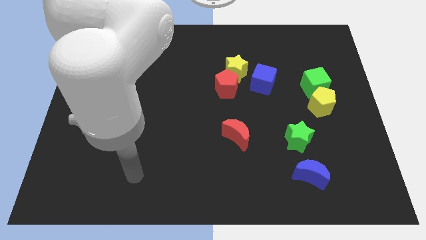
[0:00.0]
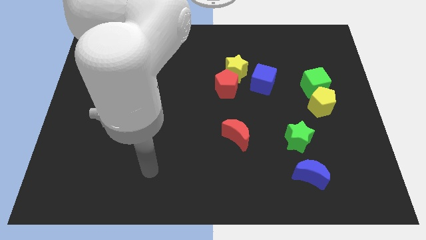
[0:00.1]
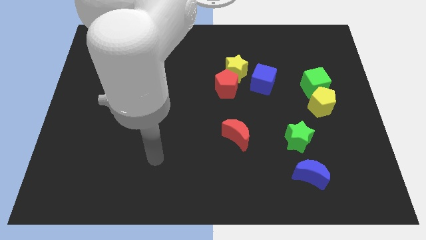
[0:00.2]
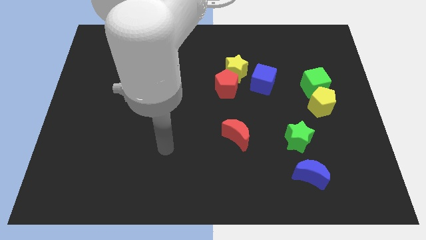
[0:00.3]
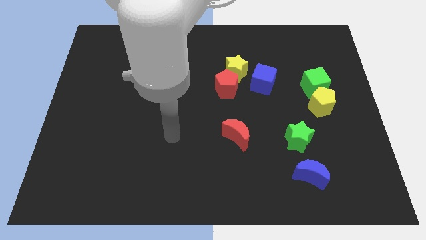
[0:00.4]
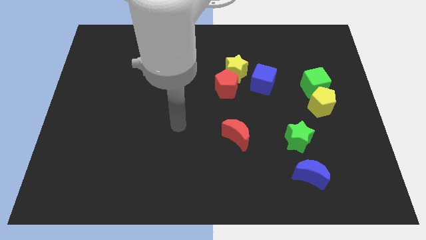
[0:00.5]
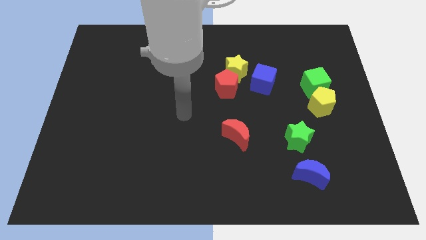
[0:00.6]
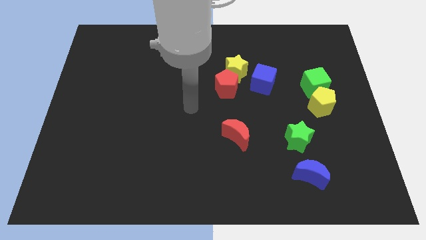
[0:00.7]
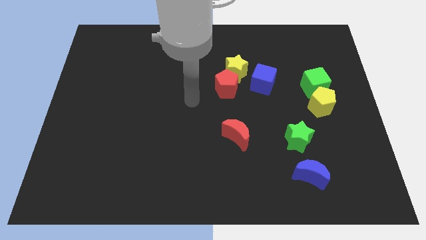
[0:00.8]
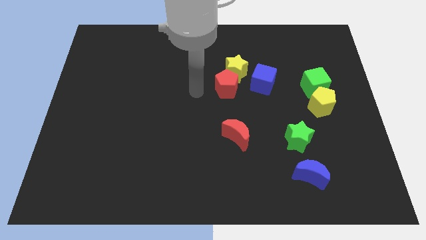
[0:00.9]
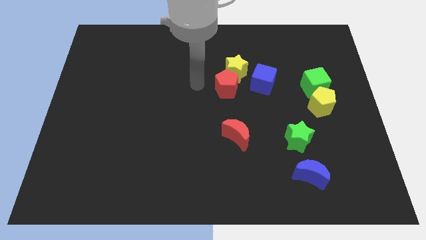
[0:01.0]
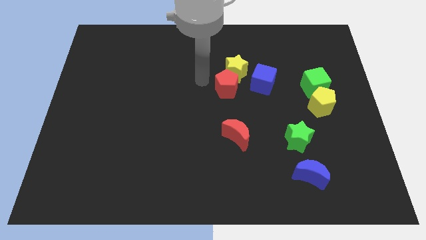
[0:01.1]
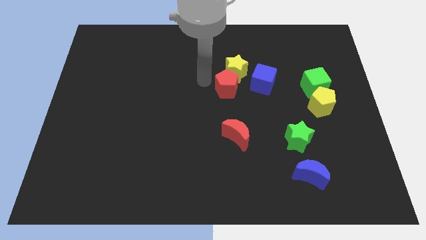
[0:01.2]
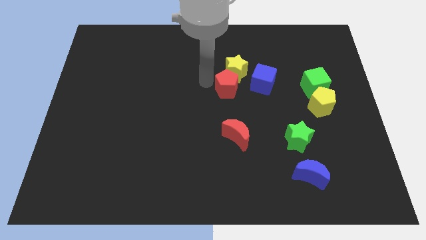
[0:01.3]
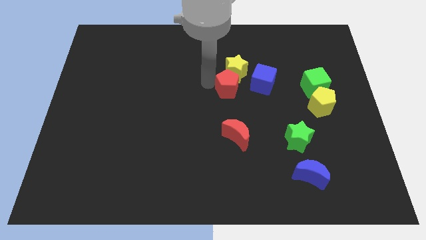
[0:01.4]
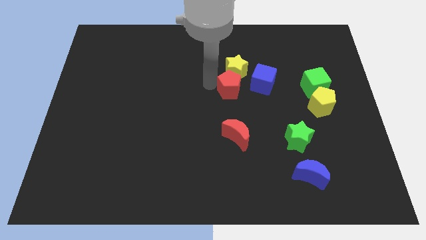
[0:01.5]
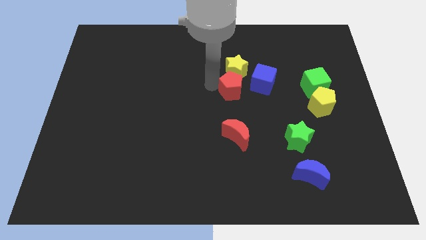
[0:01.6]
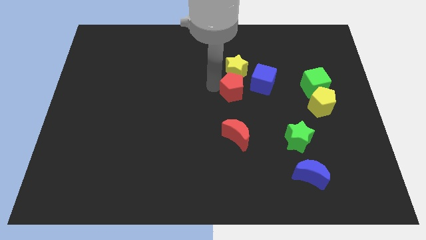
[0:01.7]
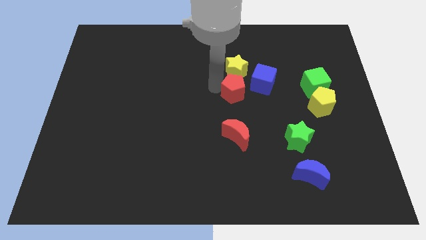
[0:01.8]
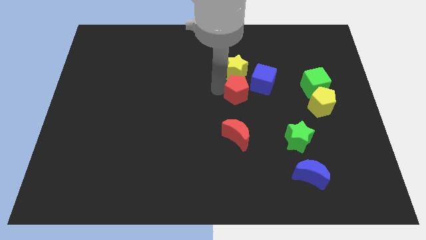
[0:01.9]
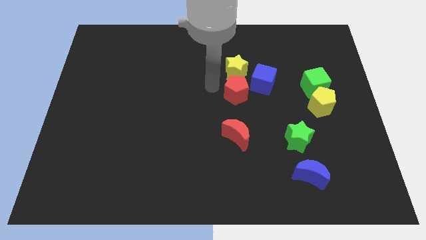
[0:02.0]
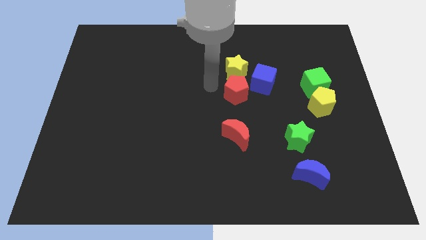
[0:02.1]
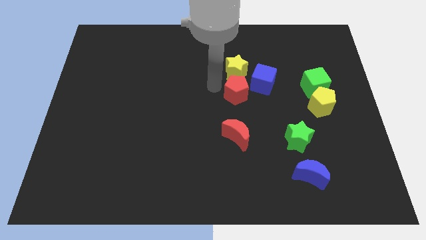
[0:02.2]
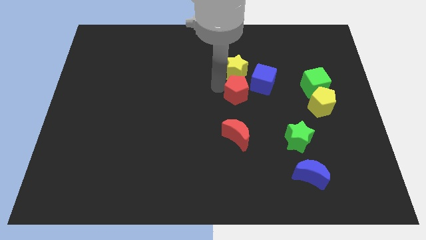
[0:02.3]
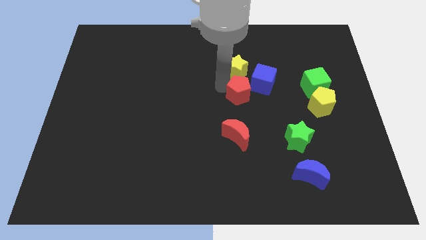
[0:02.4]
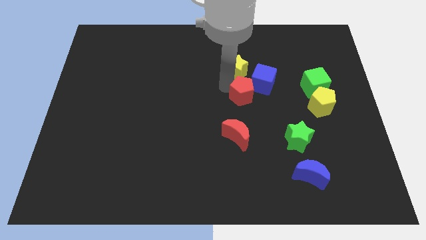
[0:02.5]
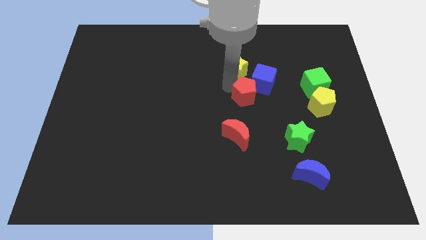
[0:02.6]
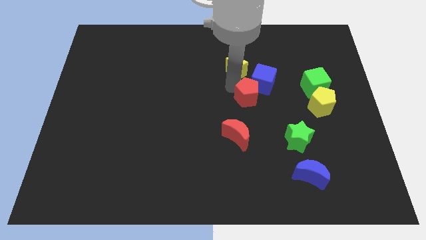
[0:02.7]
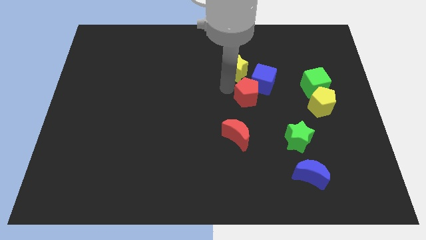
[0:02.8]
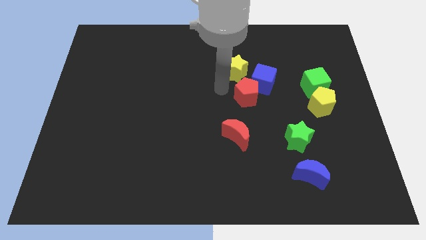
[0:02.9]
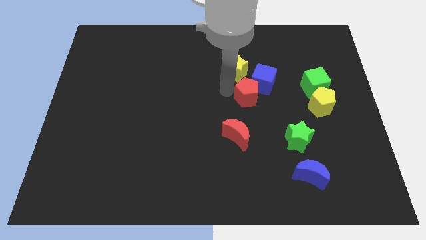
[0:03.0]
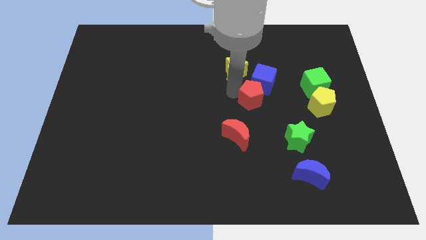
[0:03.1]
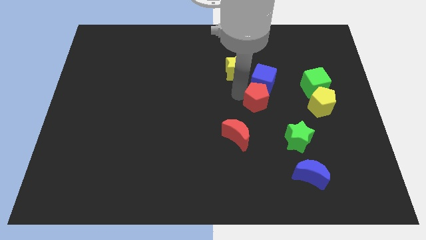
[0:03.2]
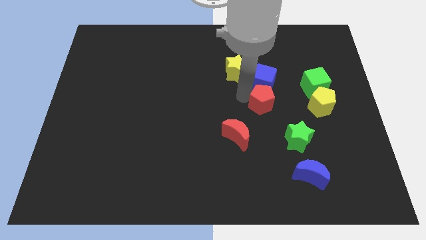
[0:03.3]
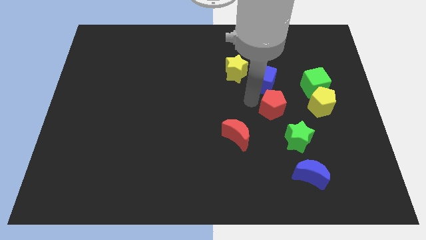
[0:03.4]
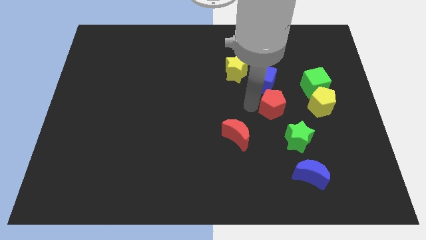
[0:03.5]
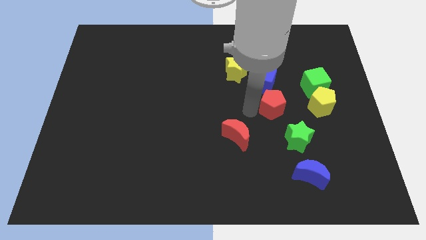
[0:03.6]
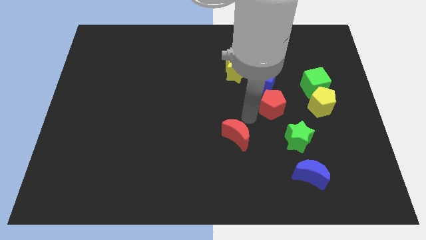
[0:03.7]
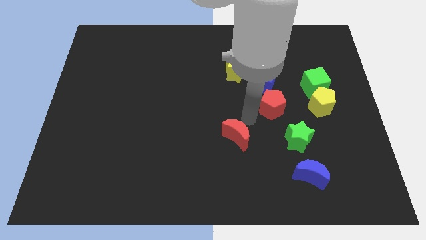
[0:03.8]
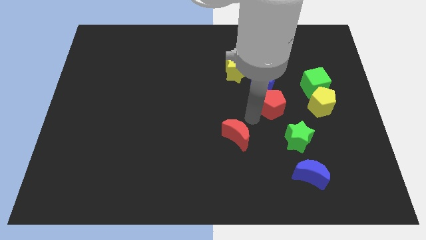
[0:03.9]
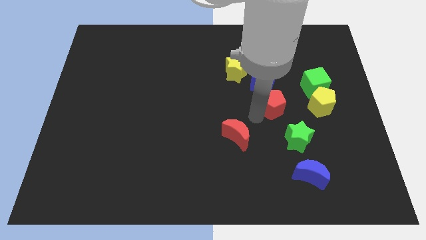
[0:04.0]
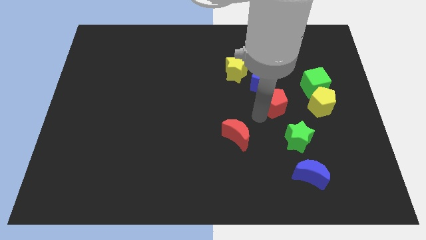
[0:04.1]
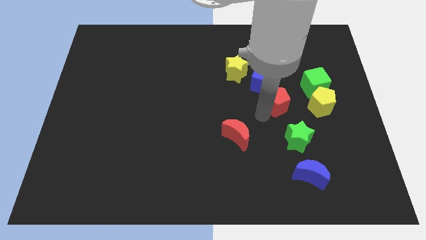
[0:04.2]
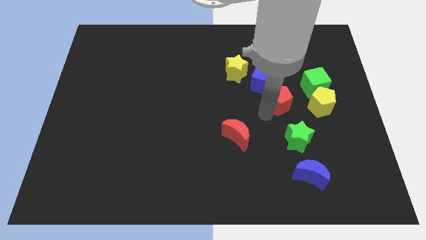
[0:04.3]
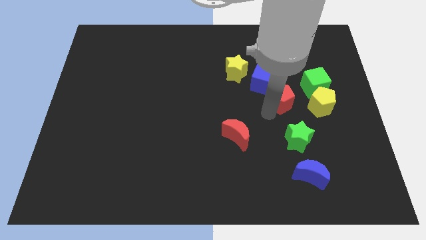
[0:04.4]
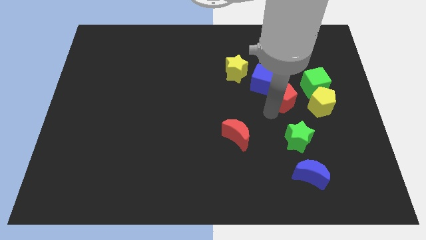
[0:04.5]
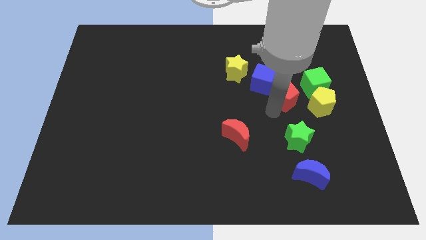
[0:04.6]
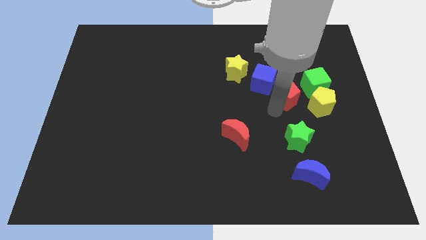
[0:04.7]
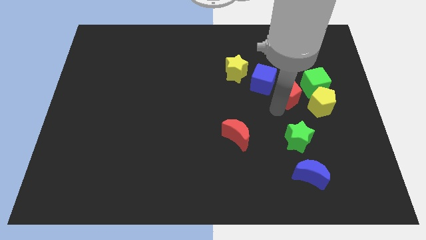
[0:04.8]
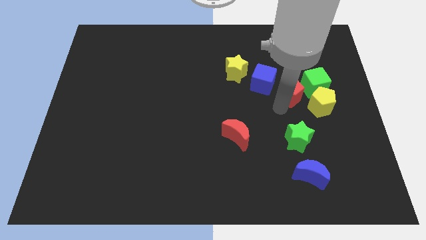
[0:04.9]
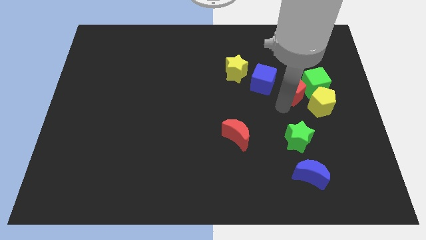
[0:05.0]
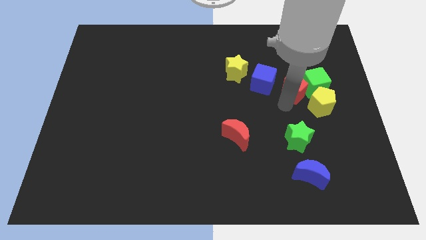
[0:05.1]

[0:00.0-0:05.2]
move the red pentagon next to the green cube

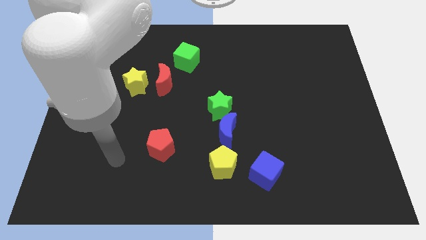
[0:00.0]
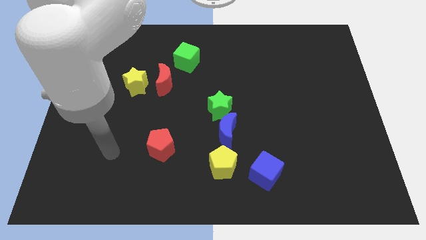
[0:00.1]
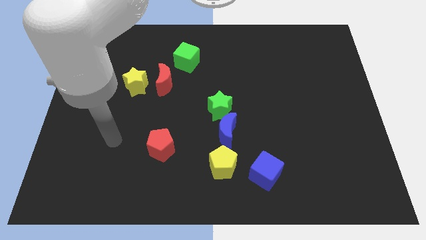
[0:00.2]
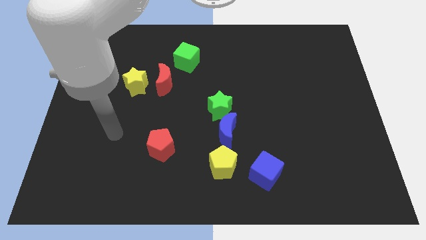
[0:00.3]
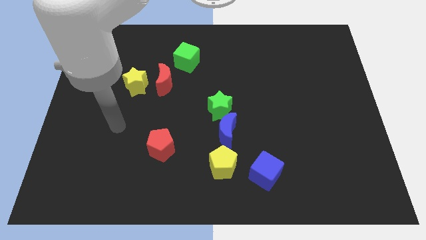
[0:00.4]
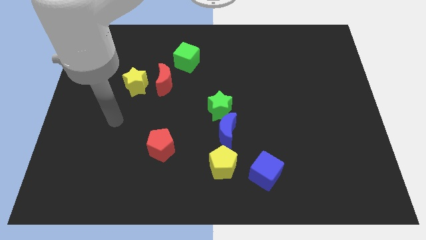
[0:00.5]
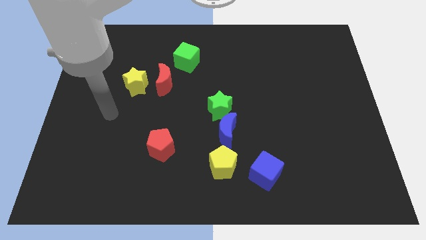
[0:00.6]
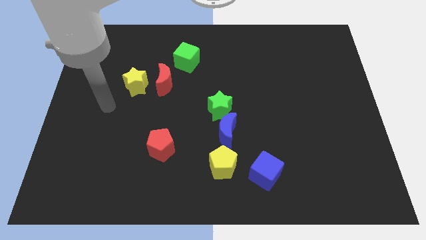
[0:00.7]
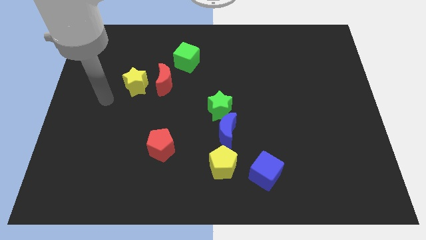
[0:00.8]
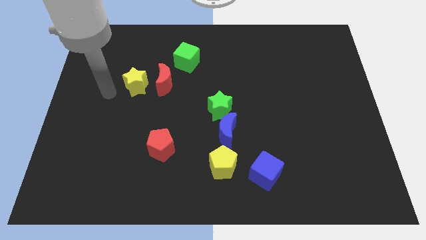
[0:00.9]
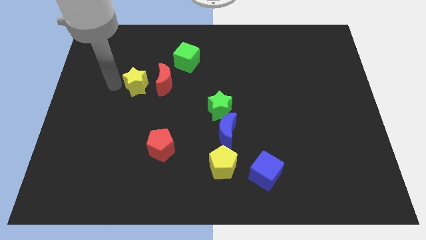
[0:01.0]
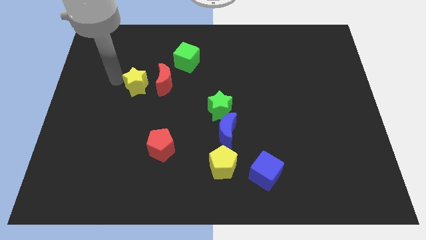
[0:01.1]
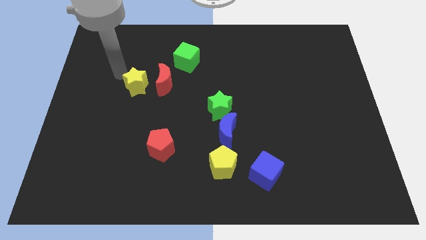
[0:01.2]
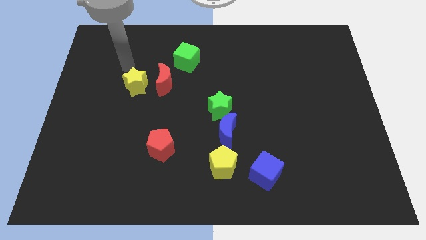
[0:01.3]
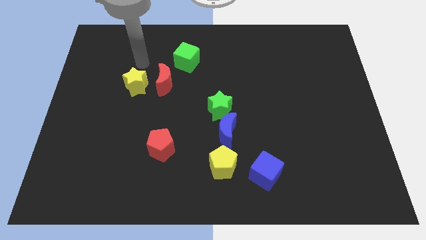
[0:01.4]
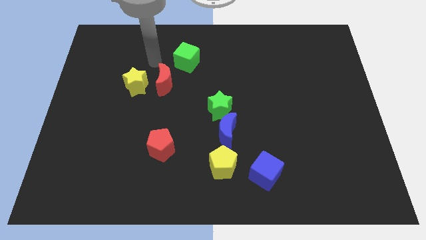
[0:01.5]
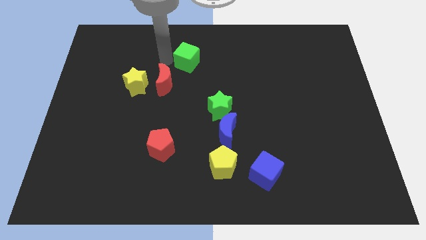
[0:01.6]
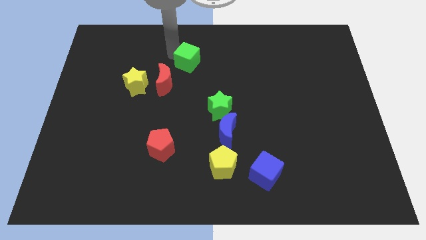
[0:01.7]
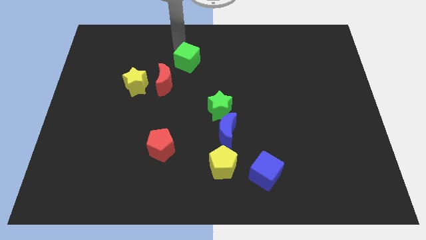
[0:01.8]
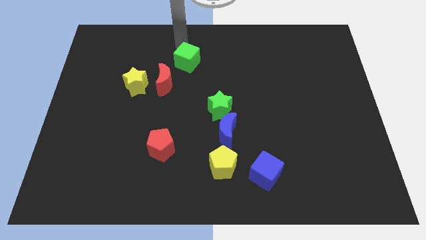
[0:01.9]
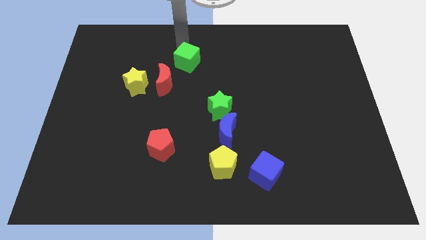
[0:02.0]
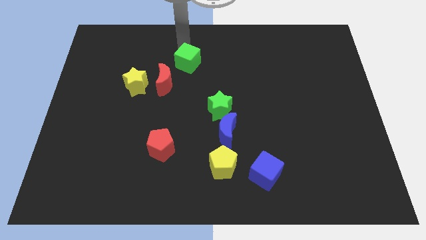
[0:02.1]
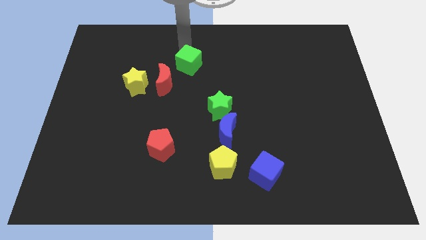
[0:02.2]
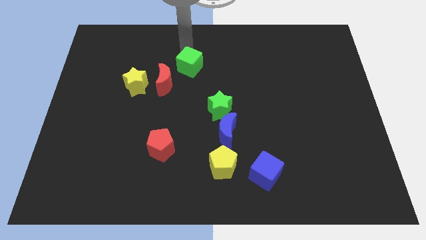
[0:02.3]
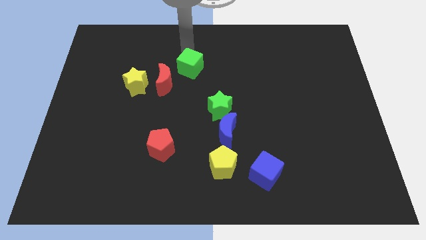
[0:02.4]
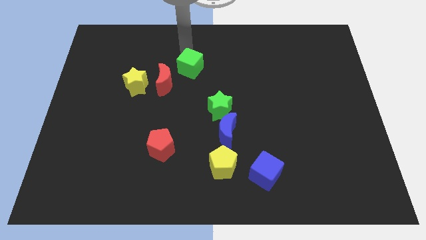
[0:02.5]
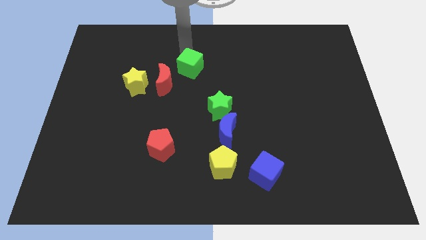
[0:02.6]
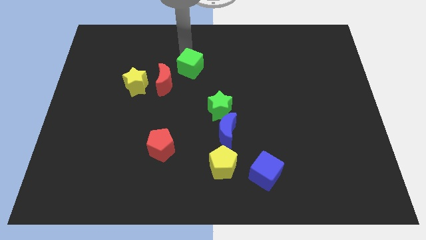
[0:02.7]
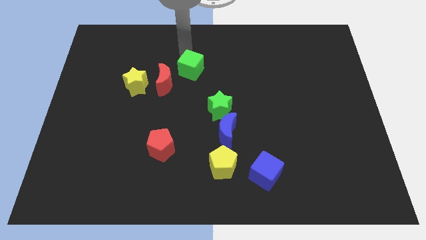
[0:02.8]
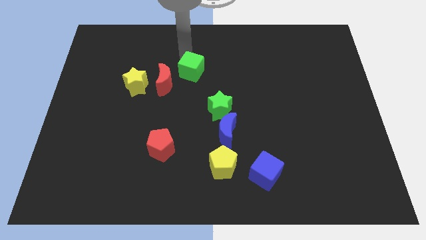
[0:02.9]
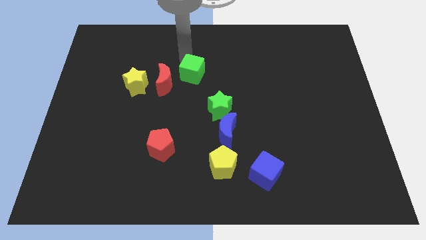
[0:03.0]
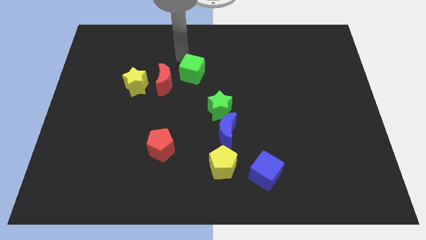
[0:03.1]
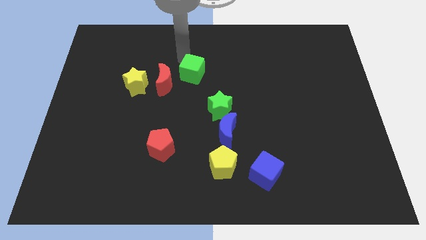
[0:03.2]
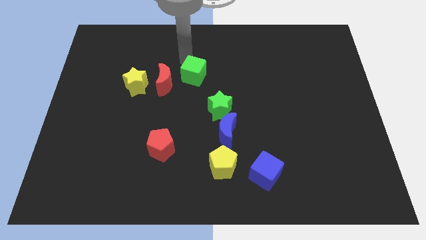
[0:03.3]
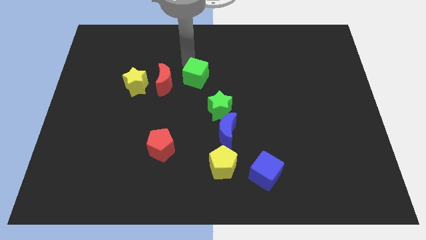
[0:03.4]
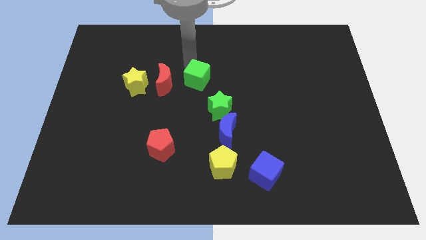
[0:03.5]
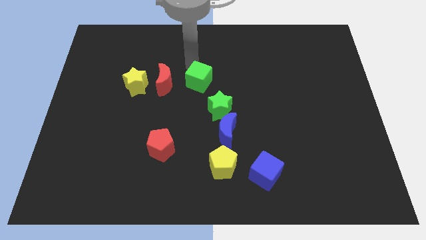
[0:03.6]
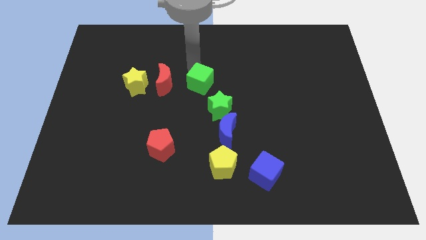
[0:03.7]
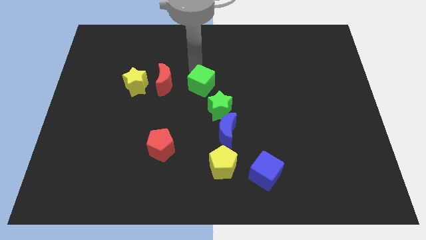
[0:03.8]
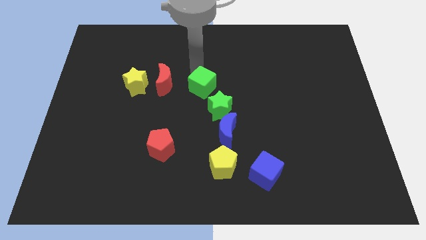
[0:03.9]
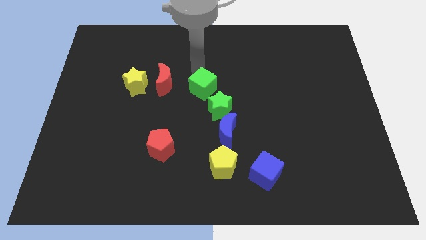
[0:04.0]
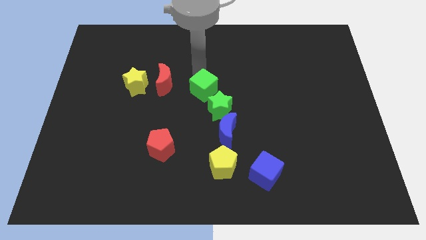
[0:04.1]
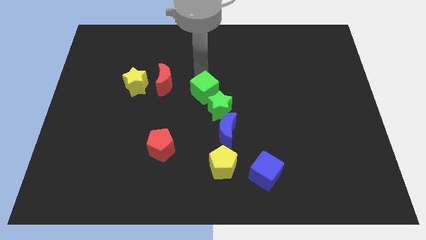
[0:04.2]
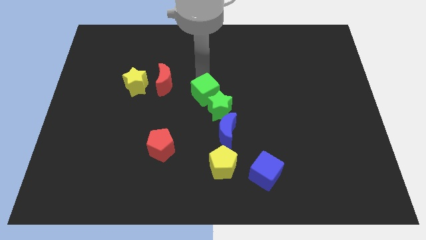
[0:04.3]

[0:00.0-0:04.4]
push the green cube to the green star
